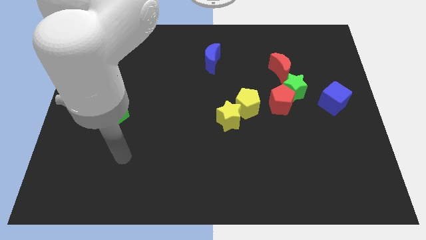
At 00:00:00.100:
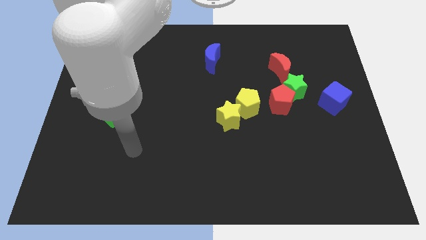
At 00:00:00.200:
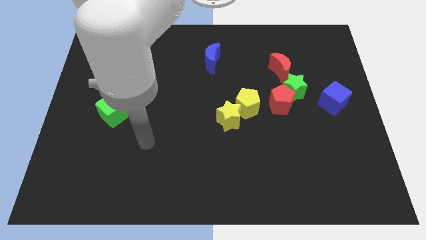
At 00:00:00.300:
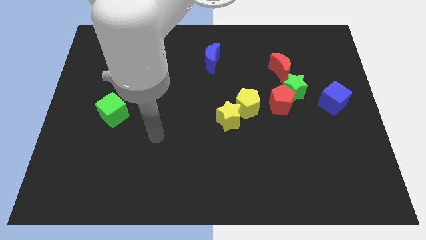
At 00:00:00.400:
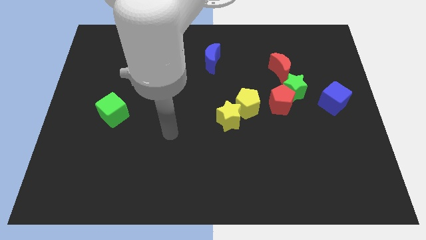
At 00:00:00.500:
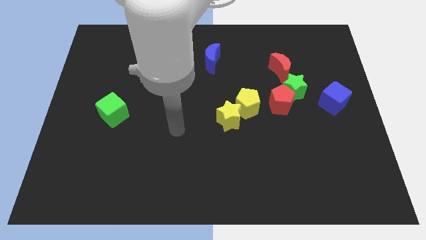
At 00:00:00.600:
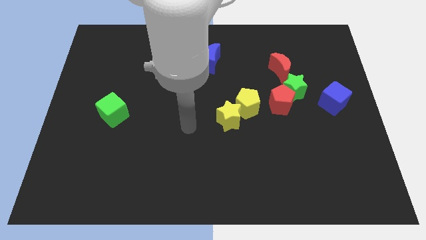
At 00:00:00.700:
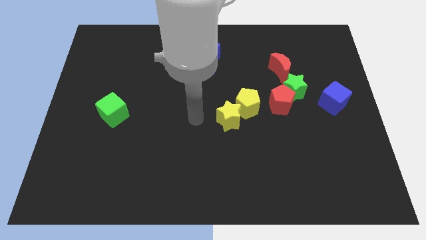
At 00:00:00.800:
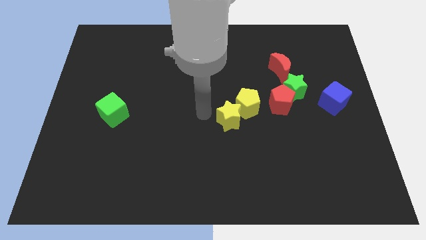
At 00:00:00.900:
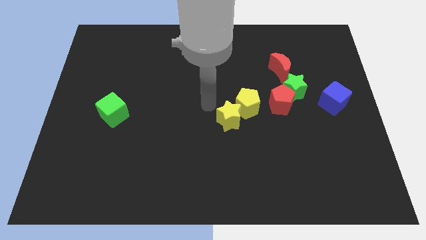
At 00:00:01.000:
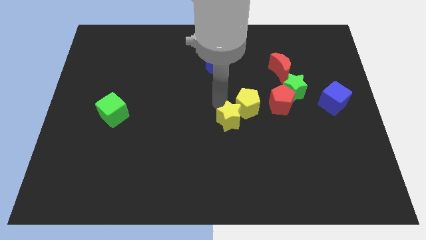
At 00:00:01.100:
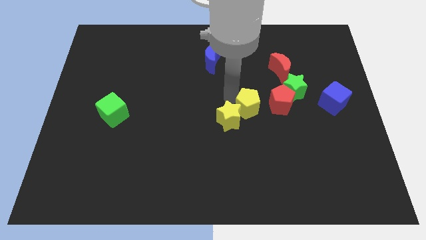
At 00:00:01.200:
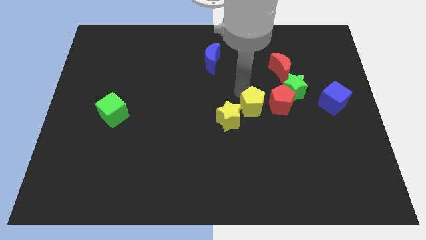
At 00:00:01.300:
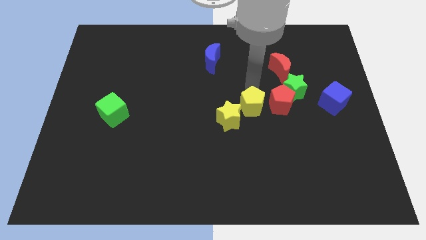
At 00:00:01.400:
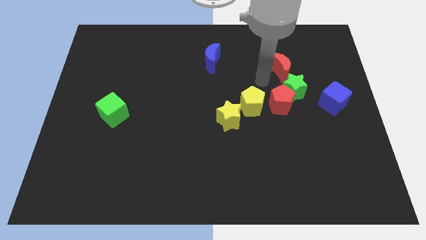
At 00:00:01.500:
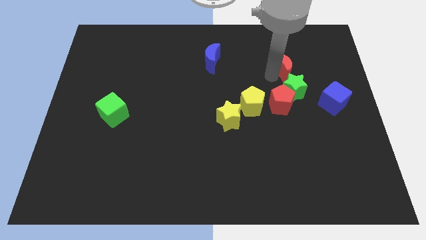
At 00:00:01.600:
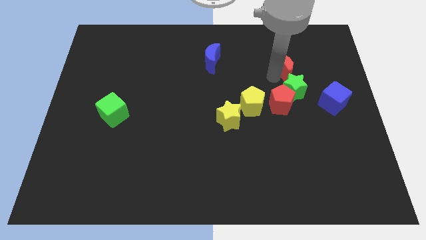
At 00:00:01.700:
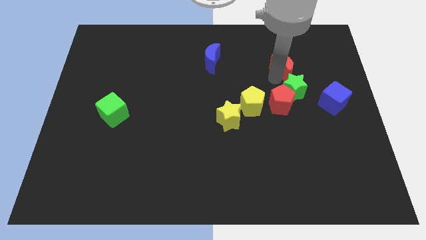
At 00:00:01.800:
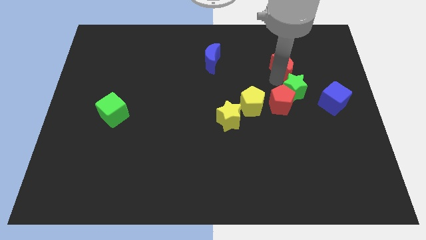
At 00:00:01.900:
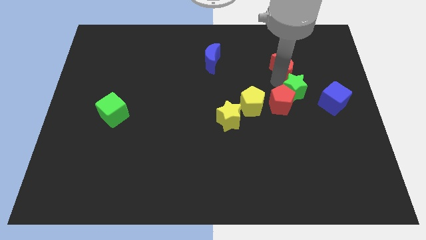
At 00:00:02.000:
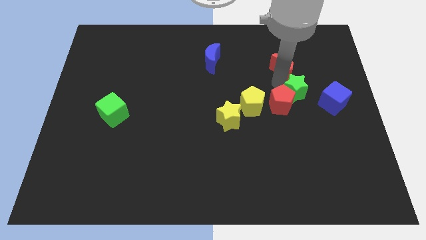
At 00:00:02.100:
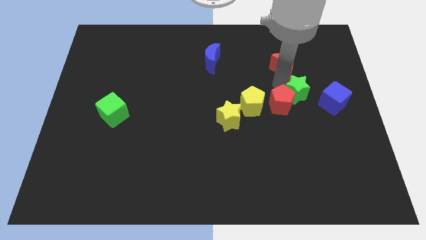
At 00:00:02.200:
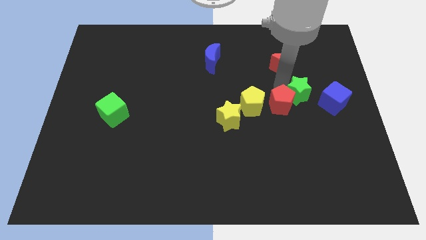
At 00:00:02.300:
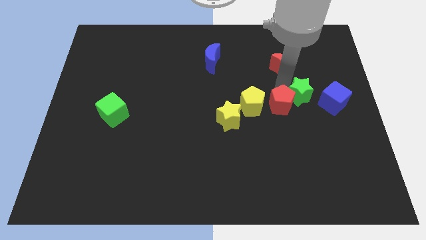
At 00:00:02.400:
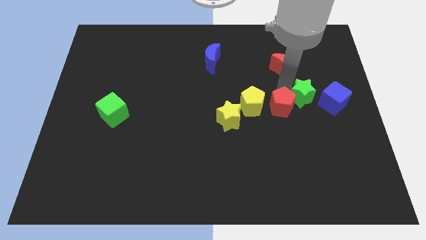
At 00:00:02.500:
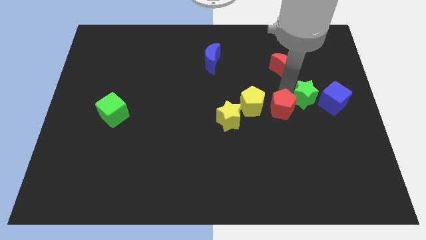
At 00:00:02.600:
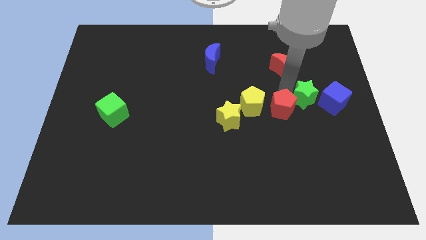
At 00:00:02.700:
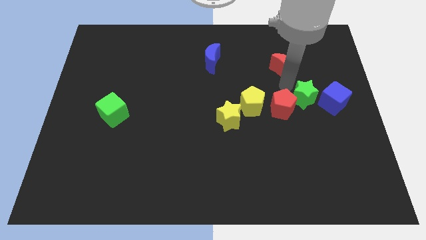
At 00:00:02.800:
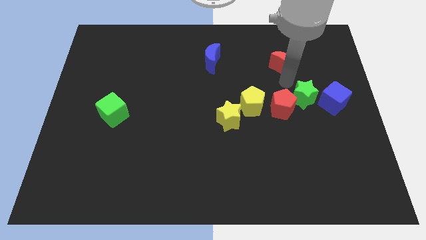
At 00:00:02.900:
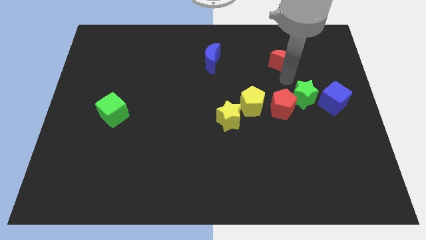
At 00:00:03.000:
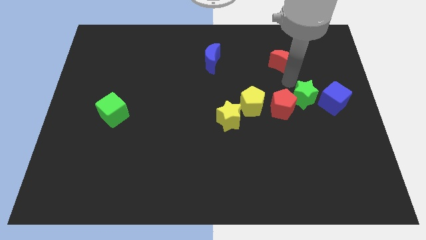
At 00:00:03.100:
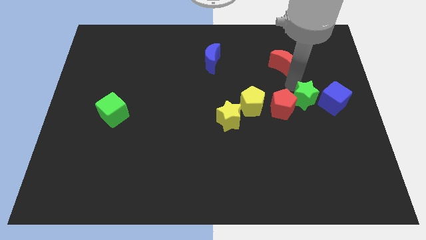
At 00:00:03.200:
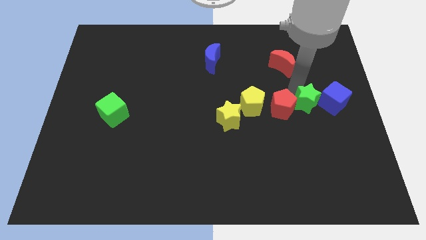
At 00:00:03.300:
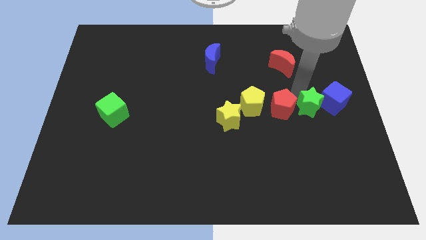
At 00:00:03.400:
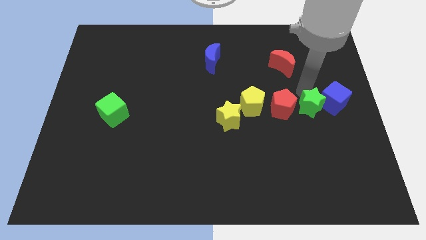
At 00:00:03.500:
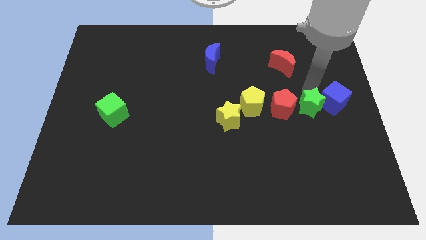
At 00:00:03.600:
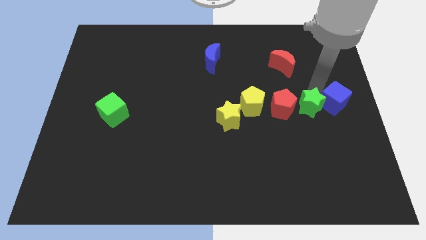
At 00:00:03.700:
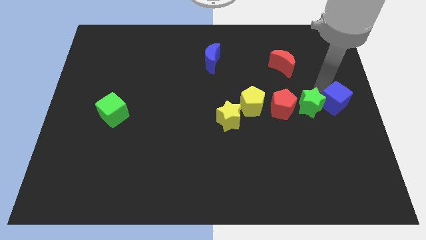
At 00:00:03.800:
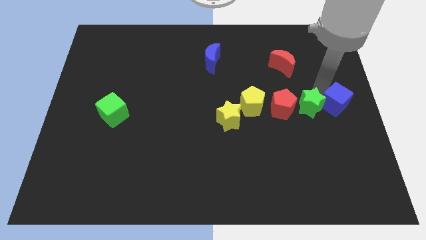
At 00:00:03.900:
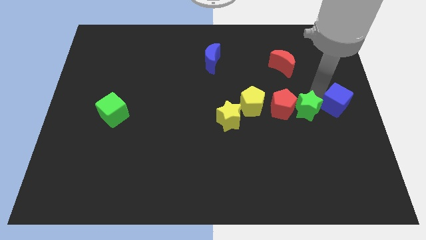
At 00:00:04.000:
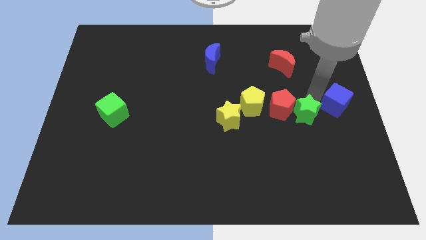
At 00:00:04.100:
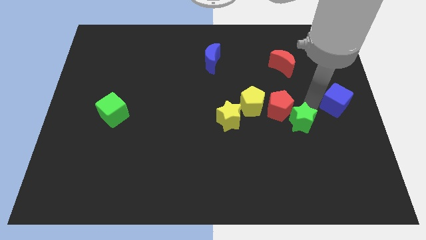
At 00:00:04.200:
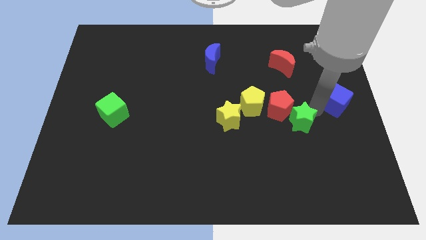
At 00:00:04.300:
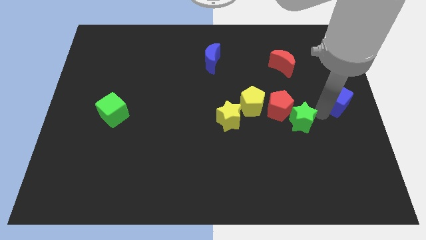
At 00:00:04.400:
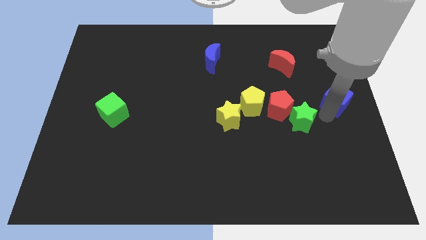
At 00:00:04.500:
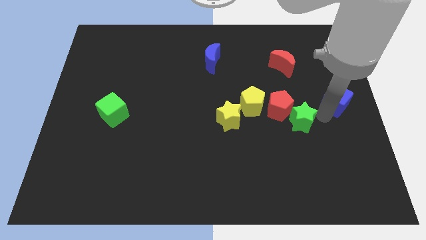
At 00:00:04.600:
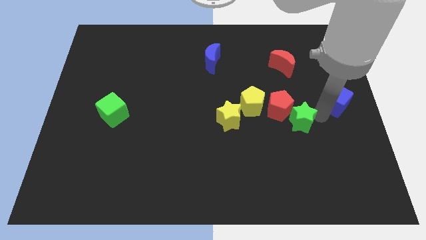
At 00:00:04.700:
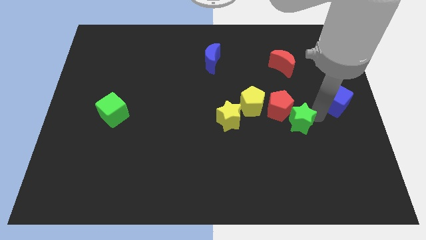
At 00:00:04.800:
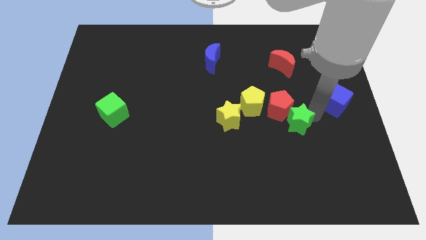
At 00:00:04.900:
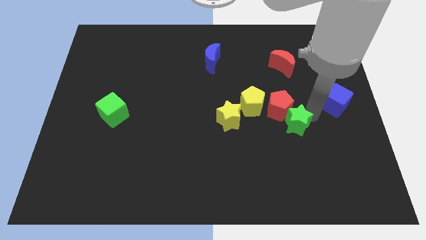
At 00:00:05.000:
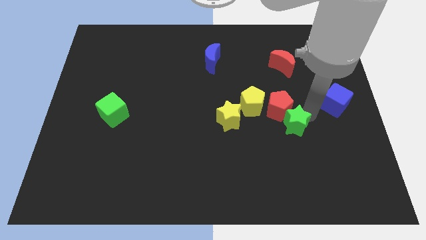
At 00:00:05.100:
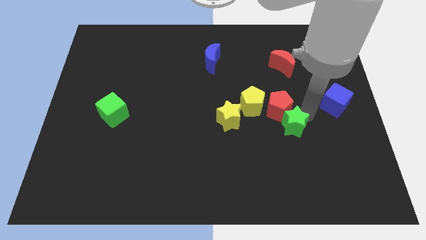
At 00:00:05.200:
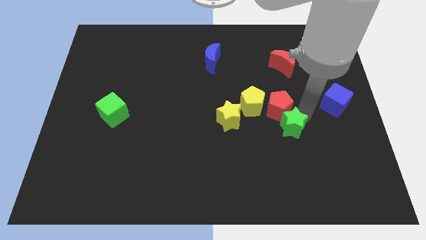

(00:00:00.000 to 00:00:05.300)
push the green star down and then left a little bit

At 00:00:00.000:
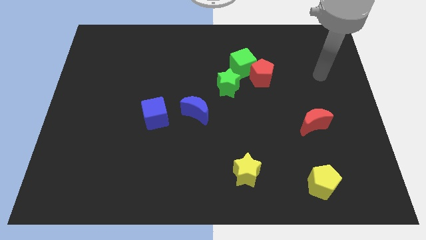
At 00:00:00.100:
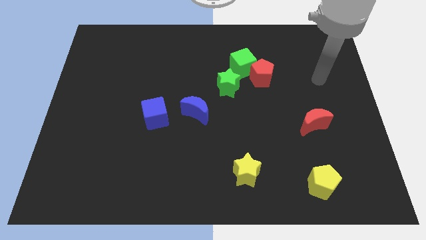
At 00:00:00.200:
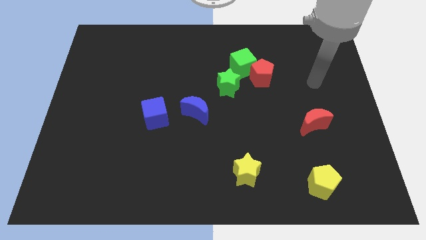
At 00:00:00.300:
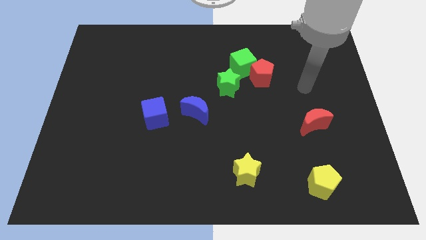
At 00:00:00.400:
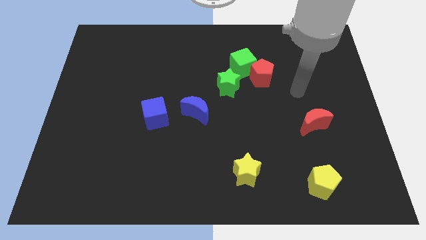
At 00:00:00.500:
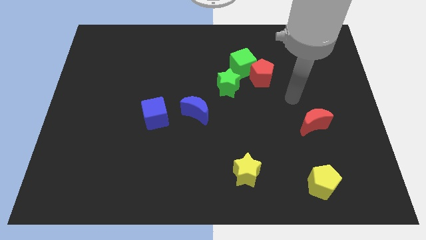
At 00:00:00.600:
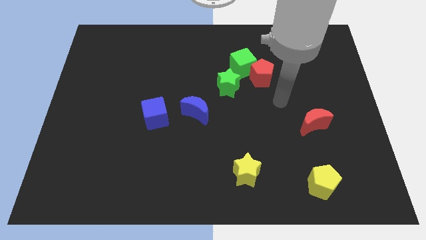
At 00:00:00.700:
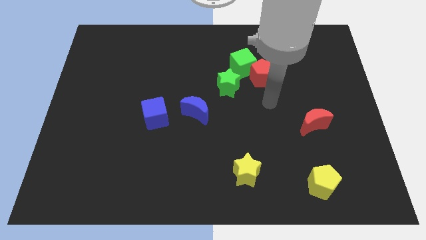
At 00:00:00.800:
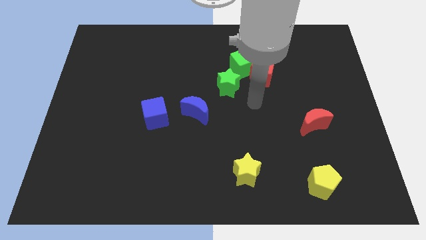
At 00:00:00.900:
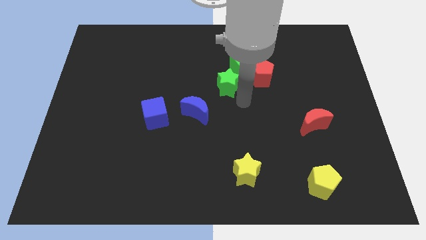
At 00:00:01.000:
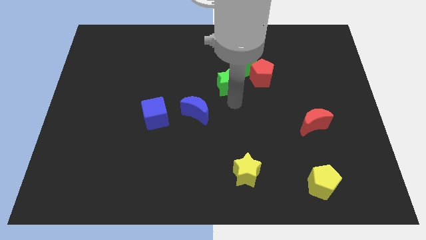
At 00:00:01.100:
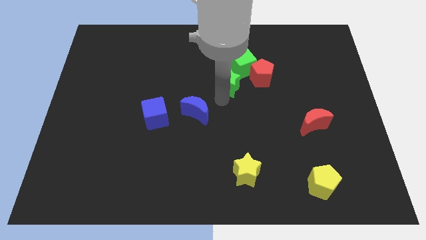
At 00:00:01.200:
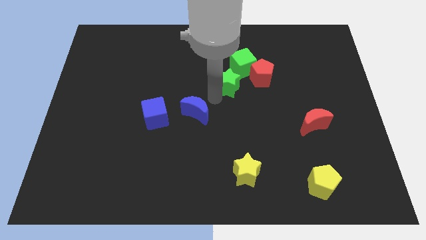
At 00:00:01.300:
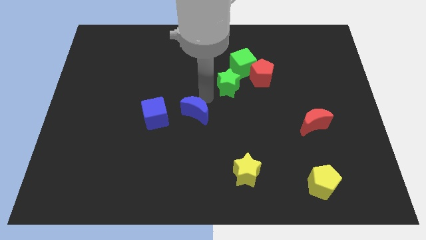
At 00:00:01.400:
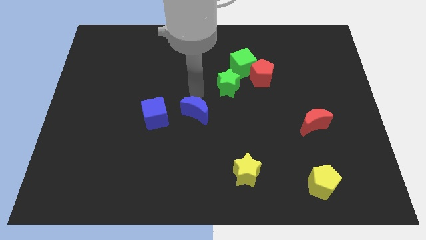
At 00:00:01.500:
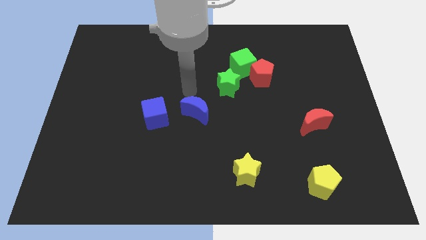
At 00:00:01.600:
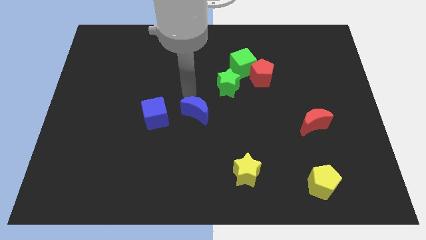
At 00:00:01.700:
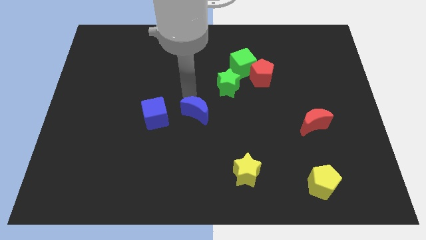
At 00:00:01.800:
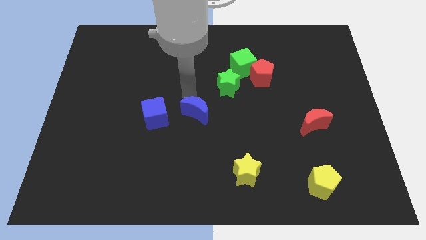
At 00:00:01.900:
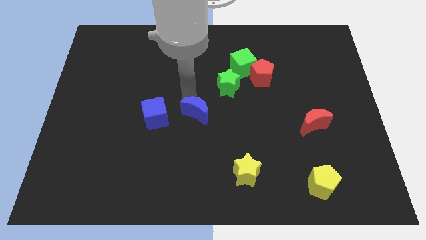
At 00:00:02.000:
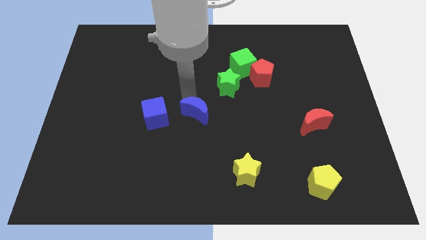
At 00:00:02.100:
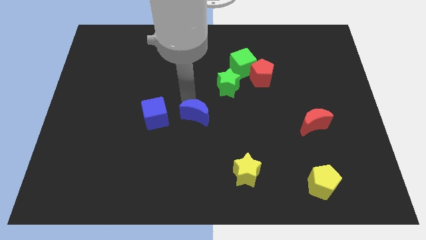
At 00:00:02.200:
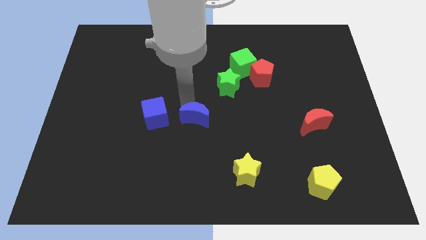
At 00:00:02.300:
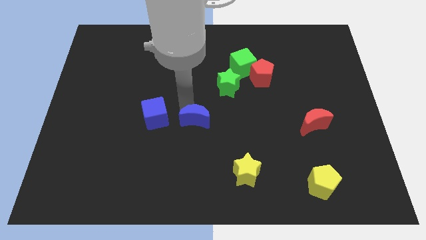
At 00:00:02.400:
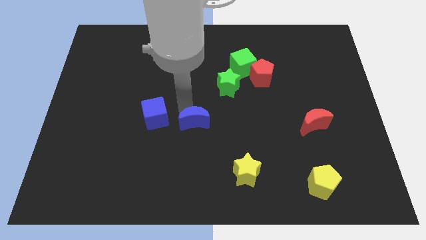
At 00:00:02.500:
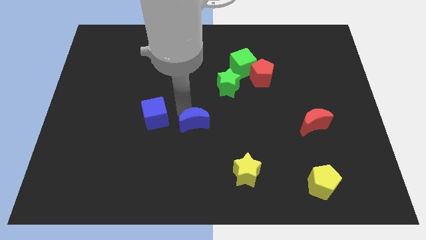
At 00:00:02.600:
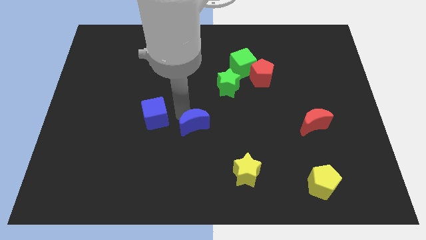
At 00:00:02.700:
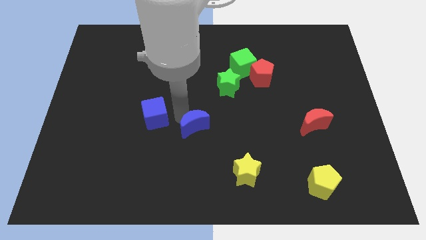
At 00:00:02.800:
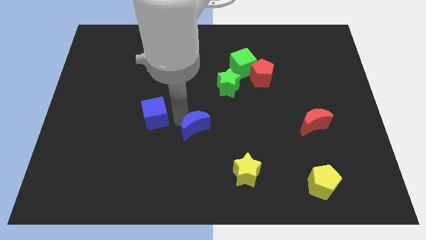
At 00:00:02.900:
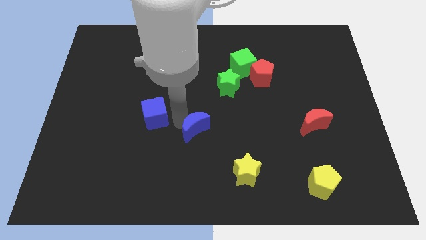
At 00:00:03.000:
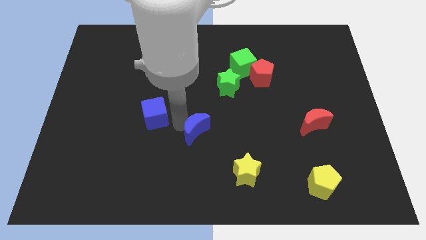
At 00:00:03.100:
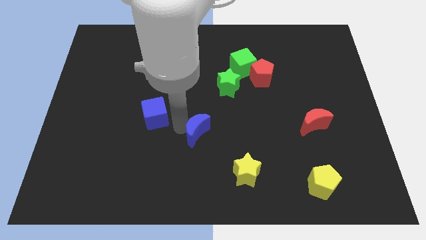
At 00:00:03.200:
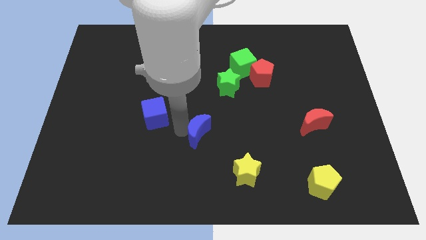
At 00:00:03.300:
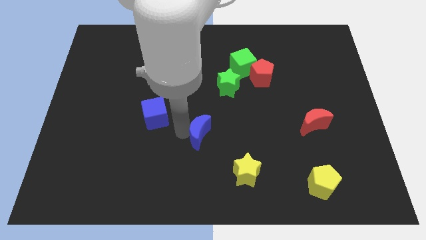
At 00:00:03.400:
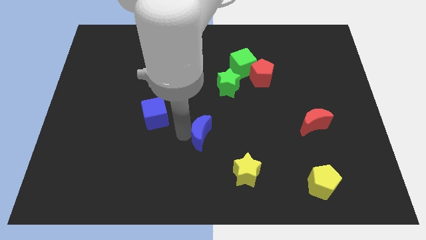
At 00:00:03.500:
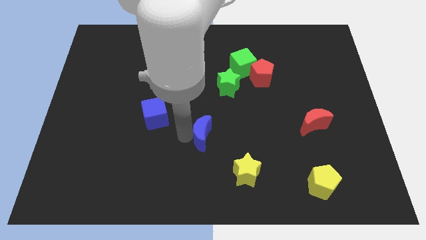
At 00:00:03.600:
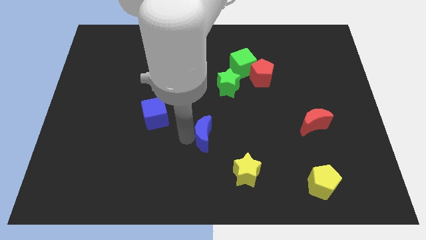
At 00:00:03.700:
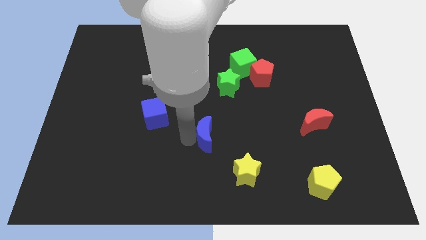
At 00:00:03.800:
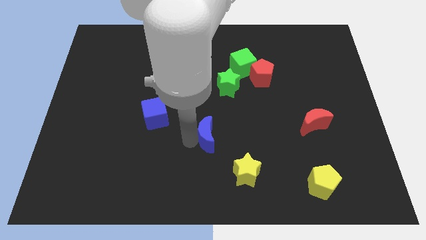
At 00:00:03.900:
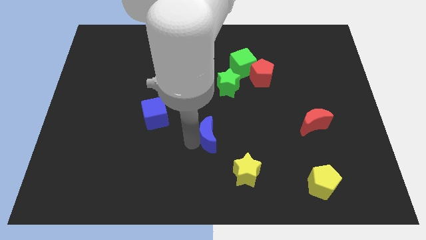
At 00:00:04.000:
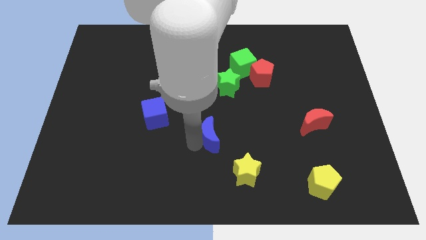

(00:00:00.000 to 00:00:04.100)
move the blue moon down and right a little
